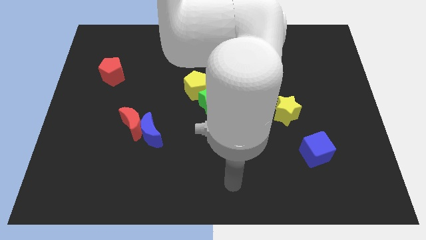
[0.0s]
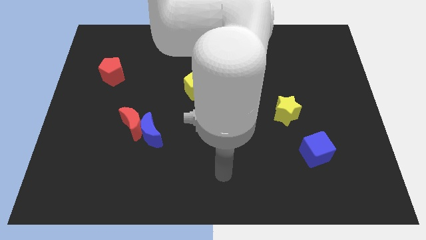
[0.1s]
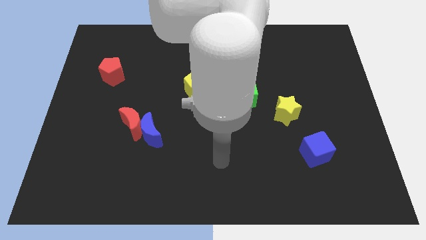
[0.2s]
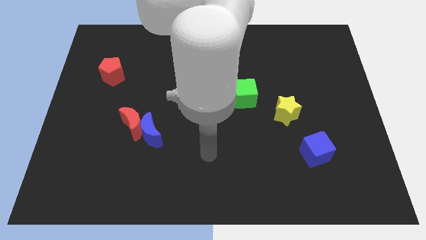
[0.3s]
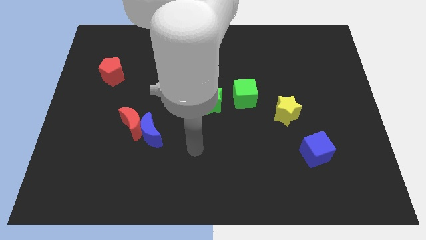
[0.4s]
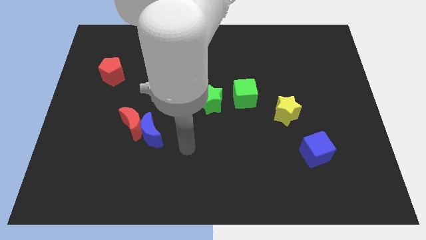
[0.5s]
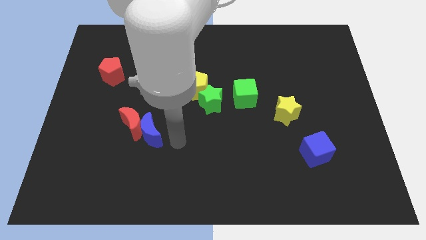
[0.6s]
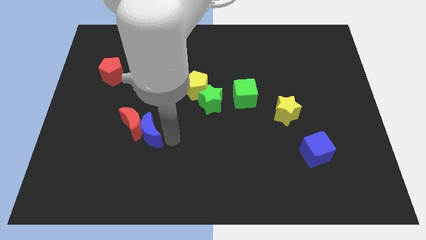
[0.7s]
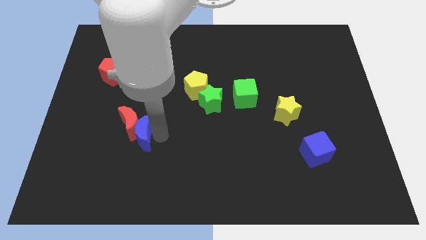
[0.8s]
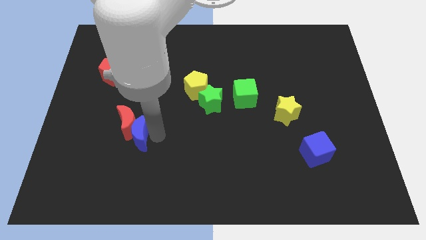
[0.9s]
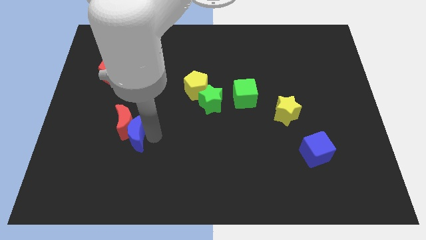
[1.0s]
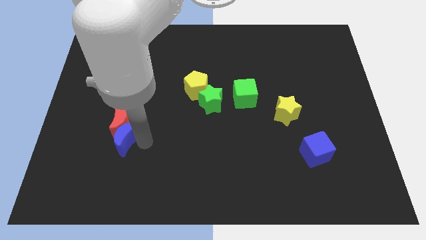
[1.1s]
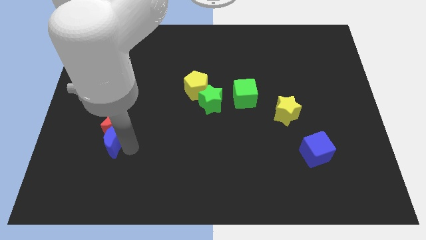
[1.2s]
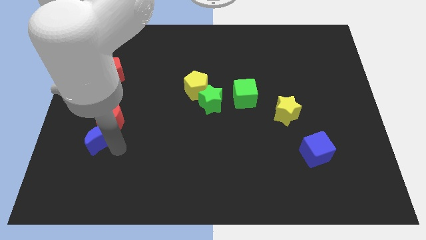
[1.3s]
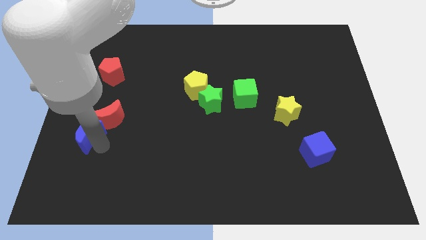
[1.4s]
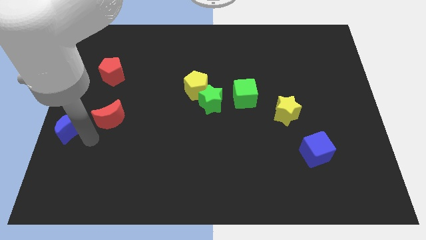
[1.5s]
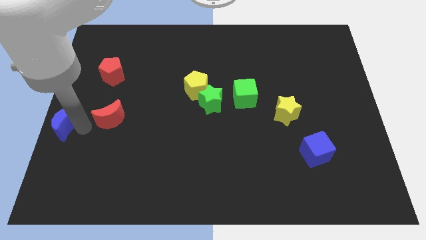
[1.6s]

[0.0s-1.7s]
move the red moon away from the blue moon

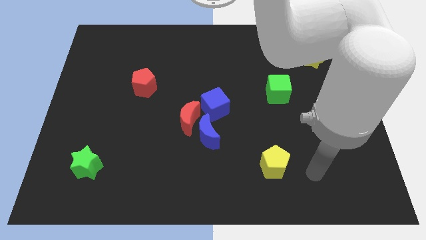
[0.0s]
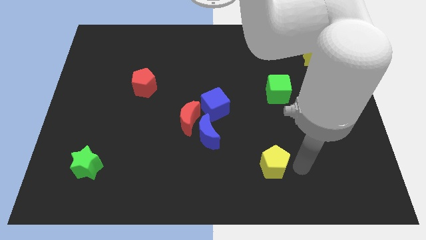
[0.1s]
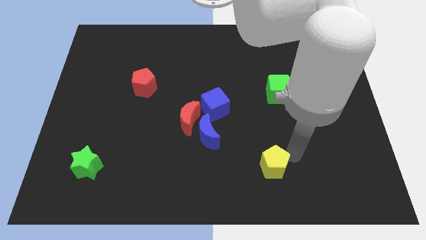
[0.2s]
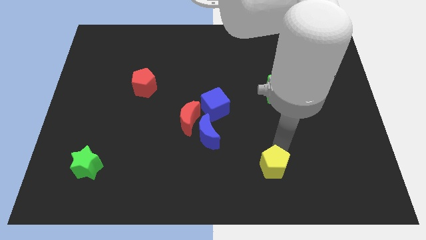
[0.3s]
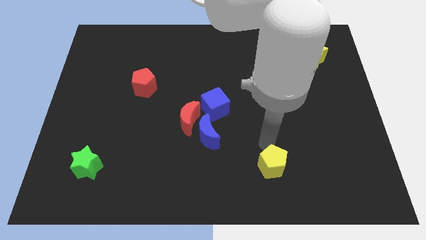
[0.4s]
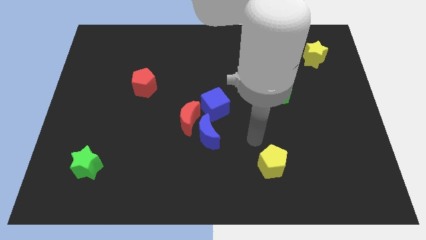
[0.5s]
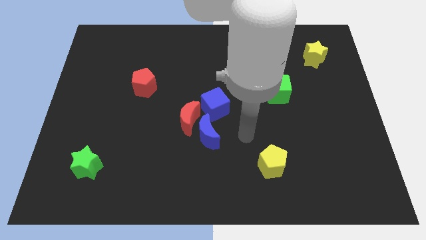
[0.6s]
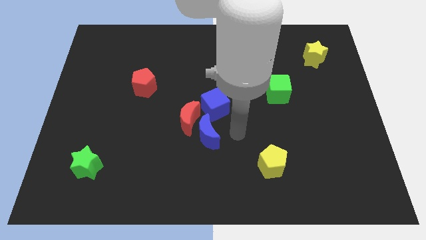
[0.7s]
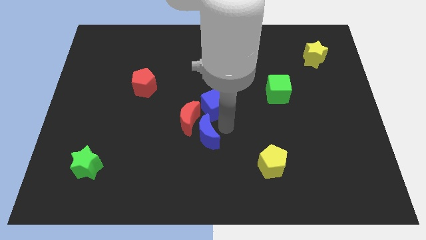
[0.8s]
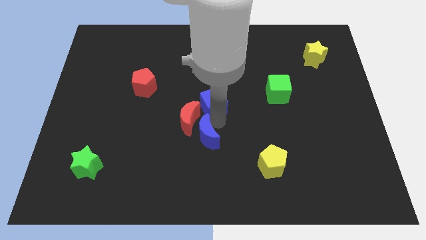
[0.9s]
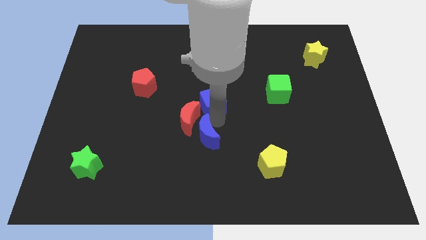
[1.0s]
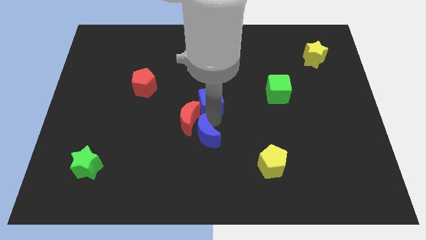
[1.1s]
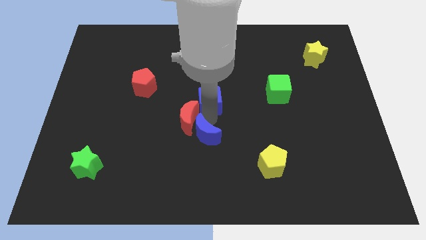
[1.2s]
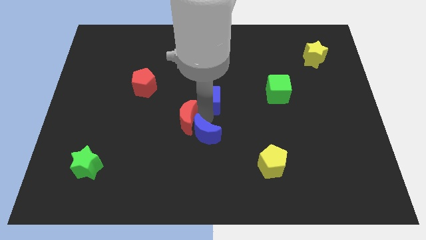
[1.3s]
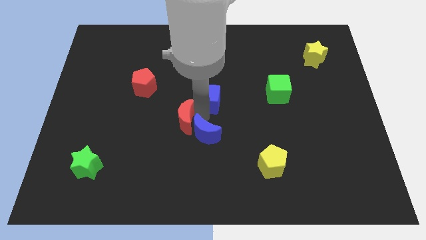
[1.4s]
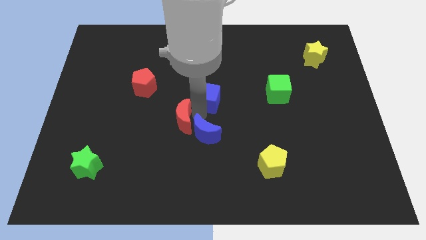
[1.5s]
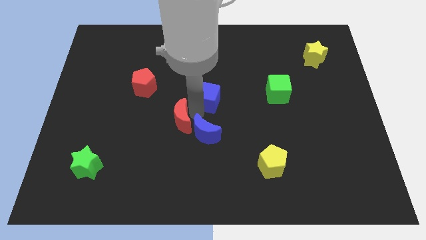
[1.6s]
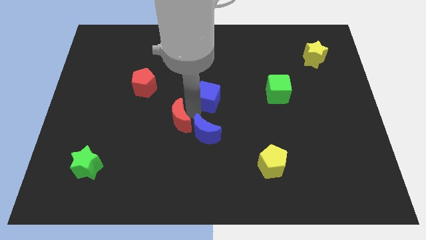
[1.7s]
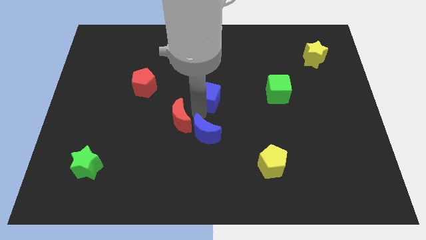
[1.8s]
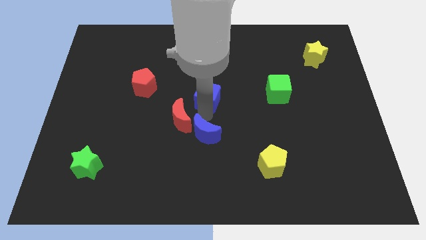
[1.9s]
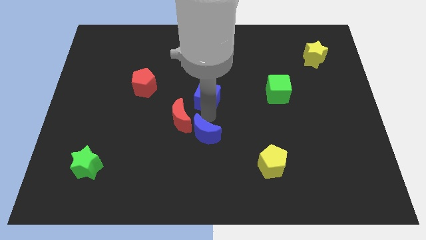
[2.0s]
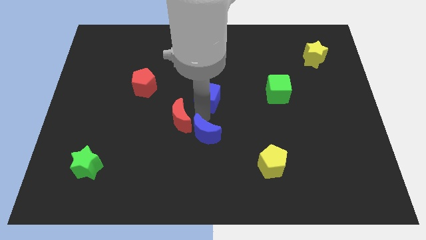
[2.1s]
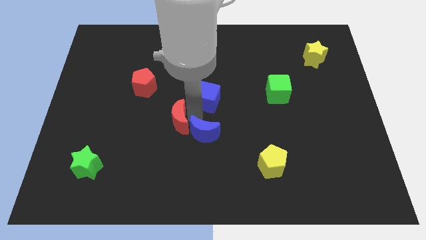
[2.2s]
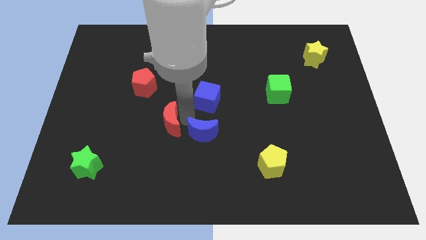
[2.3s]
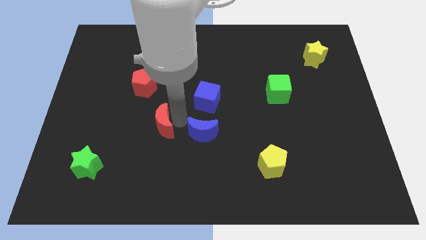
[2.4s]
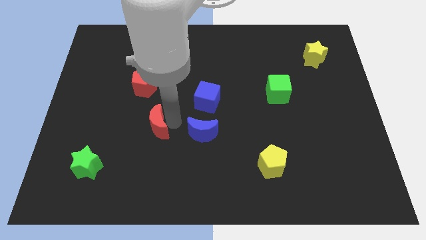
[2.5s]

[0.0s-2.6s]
separate the red moon from the blue moon and blue cube

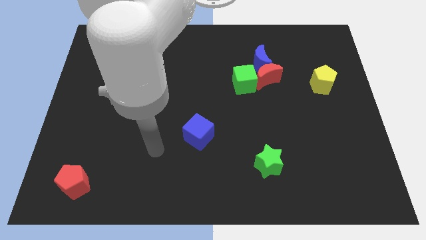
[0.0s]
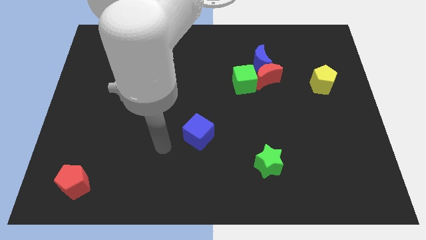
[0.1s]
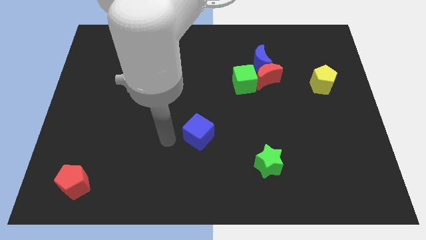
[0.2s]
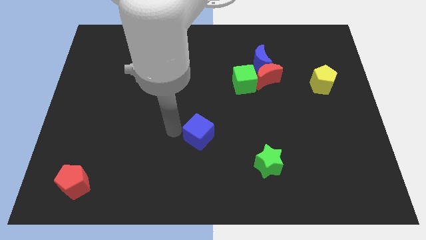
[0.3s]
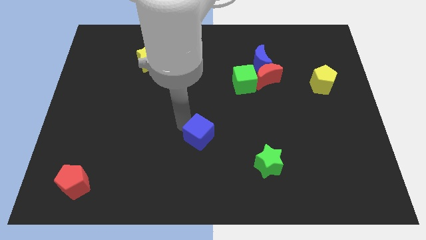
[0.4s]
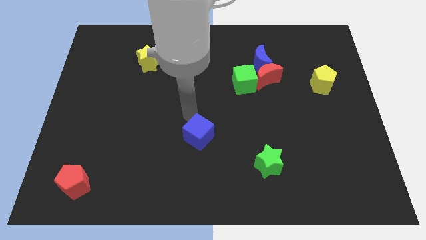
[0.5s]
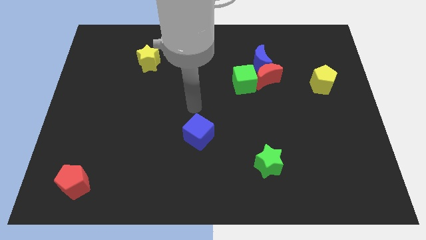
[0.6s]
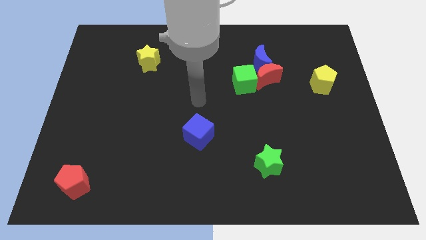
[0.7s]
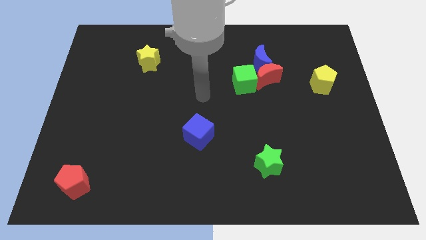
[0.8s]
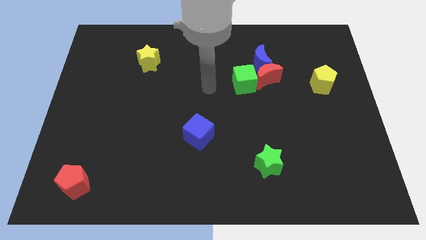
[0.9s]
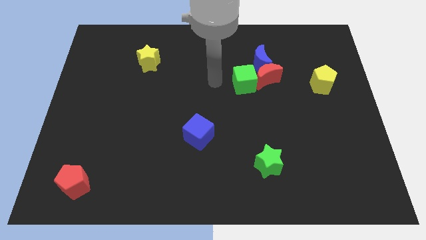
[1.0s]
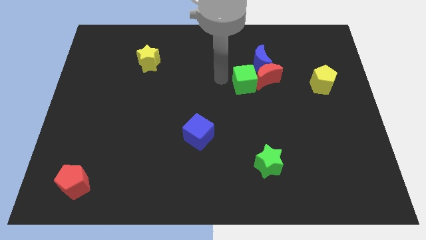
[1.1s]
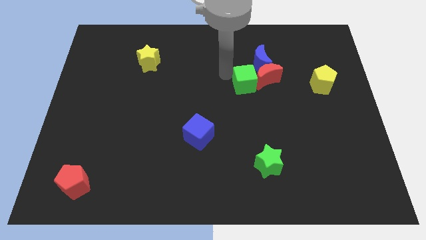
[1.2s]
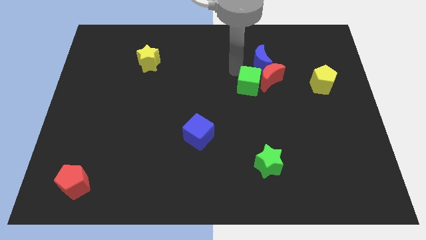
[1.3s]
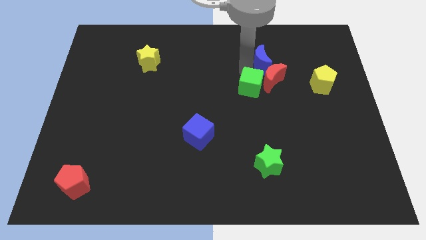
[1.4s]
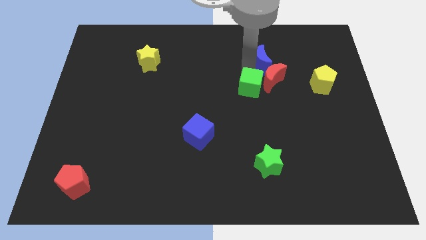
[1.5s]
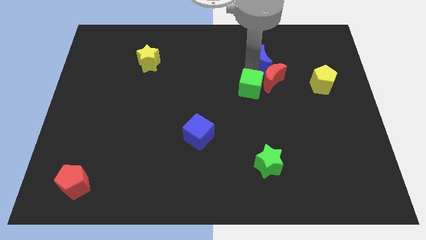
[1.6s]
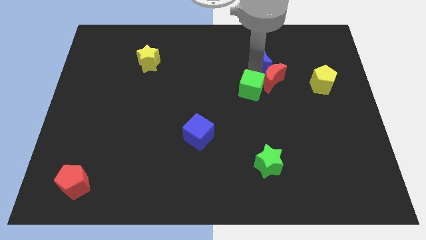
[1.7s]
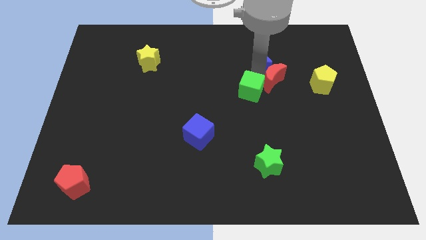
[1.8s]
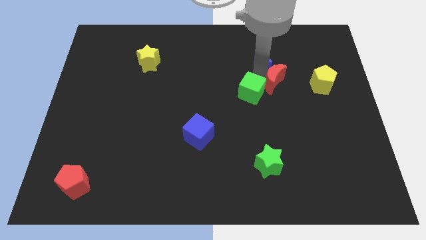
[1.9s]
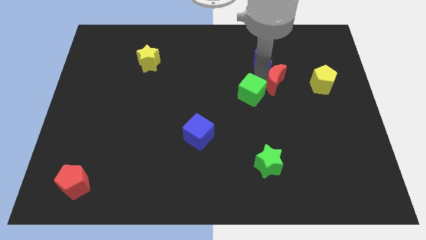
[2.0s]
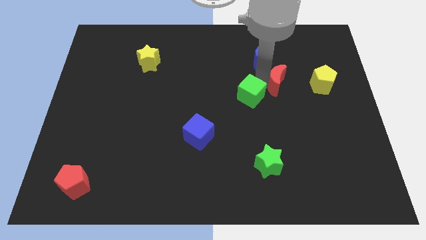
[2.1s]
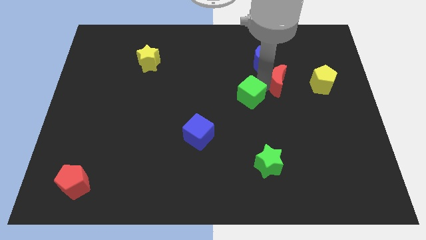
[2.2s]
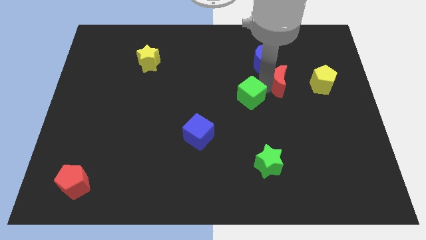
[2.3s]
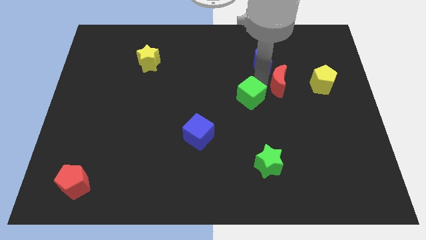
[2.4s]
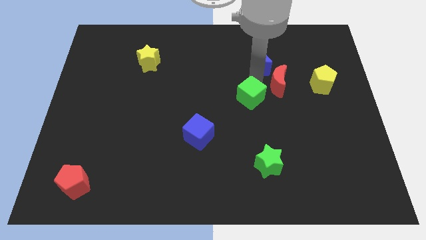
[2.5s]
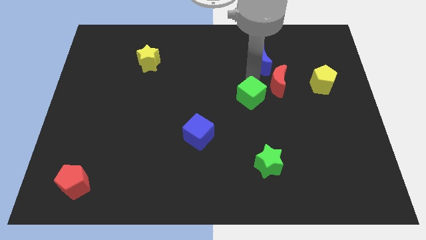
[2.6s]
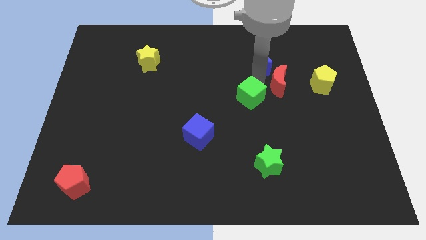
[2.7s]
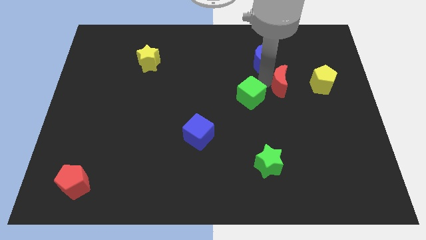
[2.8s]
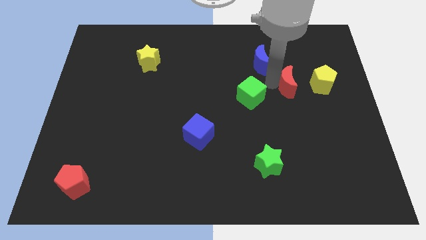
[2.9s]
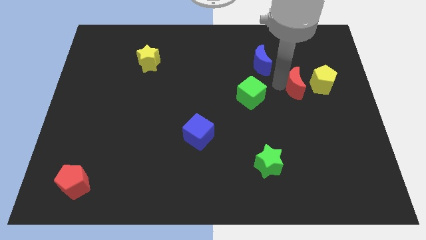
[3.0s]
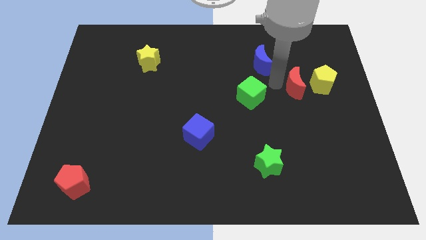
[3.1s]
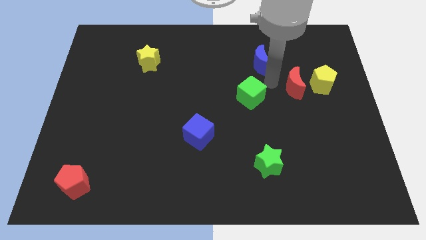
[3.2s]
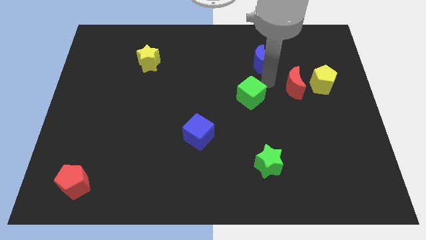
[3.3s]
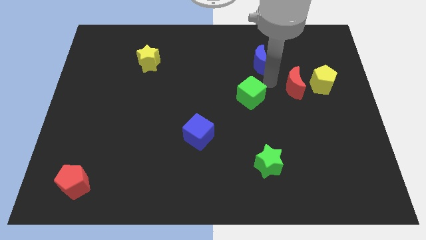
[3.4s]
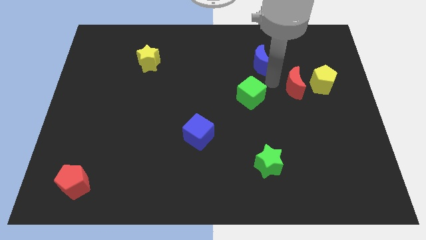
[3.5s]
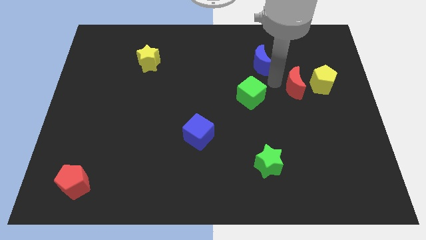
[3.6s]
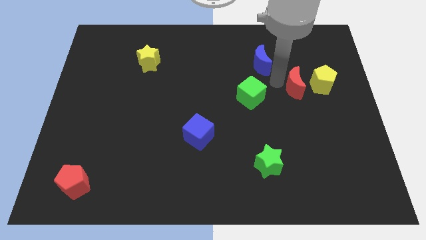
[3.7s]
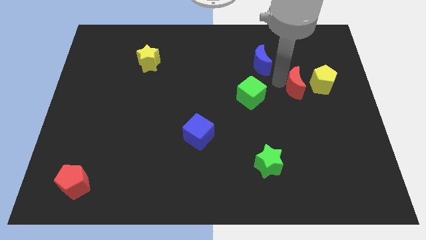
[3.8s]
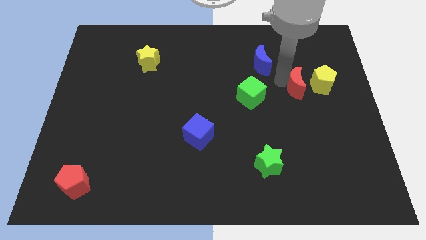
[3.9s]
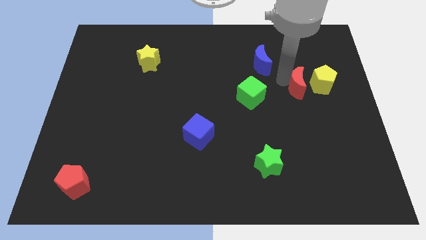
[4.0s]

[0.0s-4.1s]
separate the red moon from the blue moon and green cube

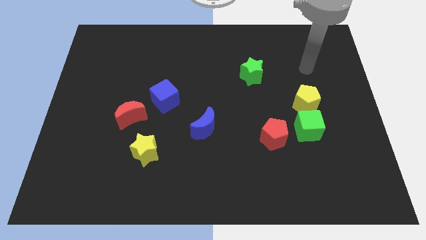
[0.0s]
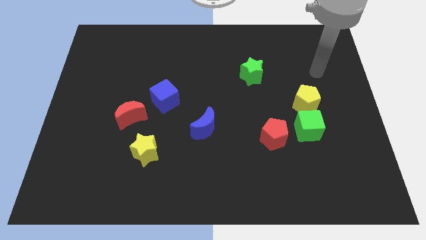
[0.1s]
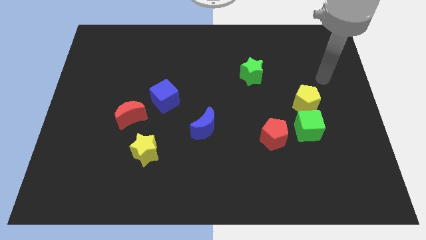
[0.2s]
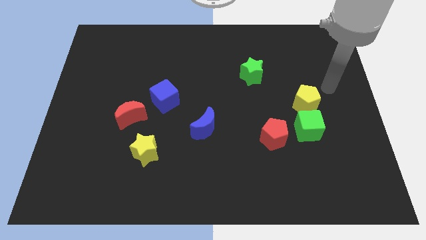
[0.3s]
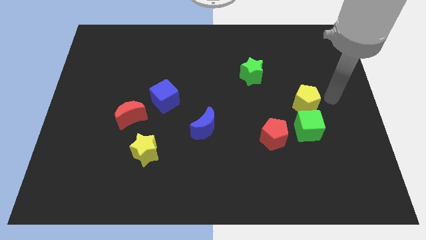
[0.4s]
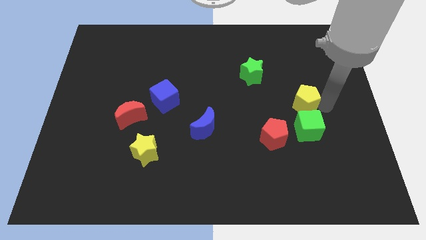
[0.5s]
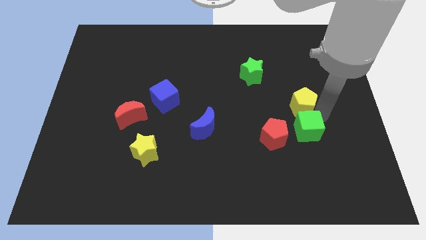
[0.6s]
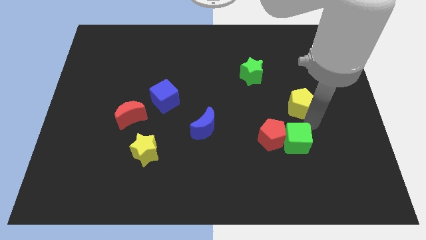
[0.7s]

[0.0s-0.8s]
move the yellow pentagon away from the green cube
